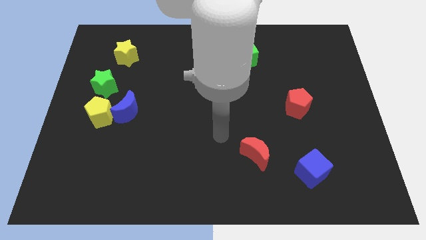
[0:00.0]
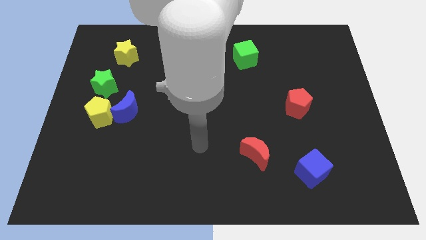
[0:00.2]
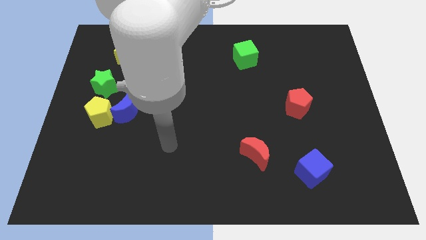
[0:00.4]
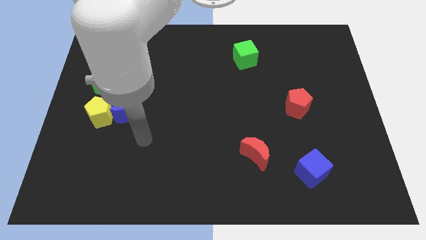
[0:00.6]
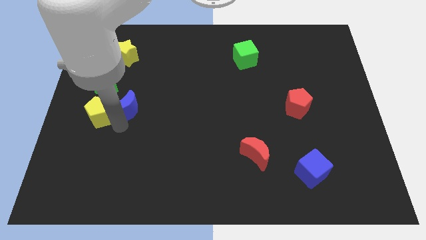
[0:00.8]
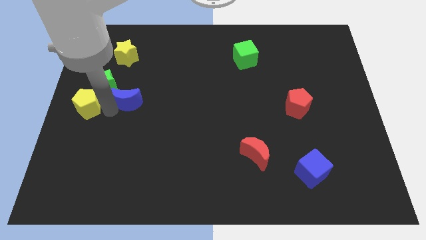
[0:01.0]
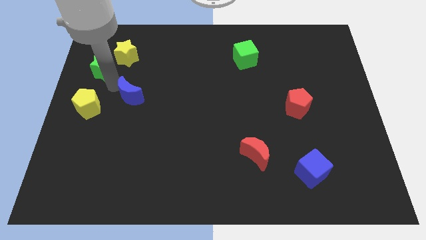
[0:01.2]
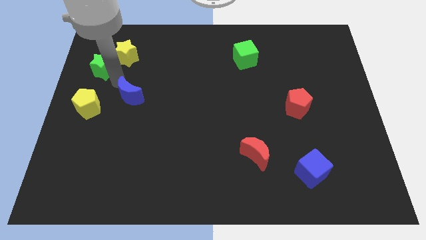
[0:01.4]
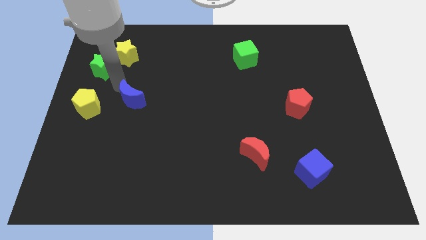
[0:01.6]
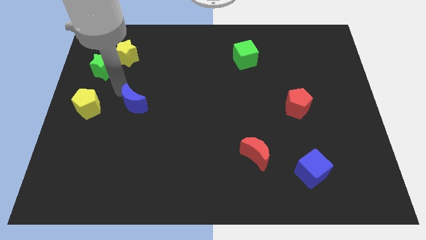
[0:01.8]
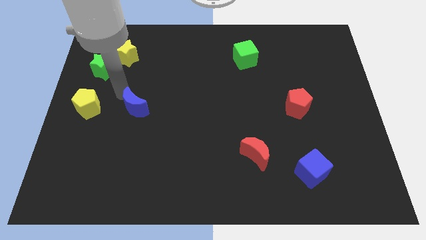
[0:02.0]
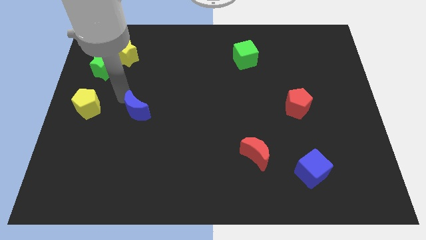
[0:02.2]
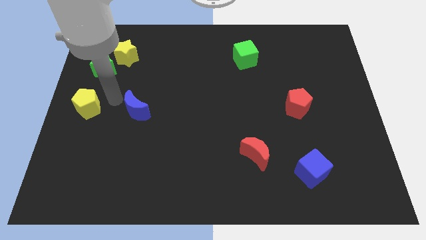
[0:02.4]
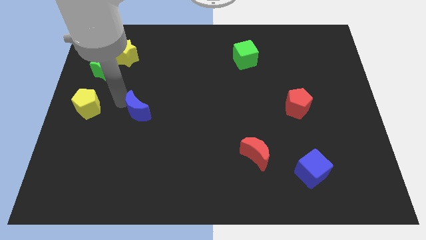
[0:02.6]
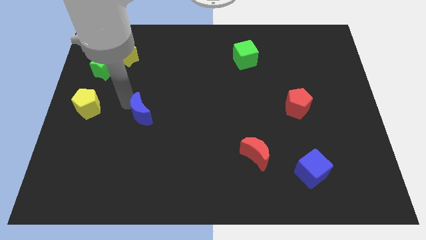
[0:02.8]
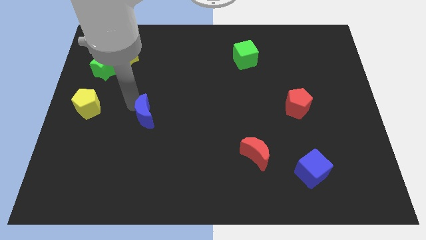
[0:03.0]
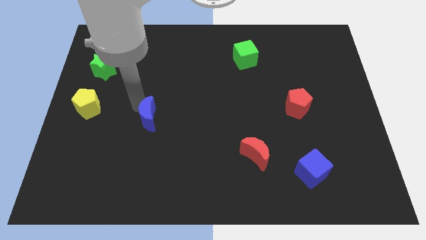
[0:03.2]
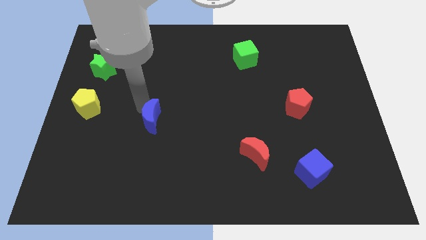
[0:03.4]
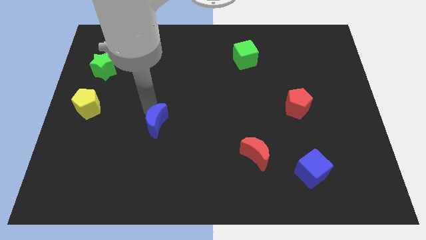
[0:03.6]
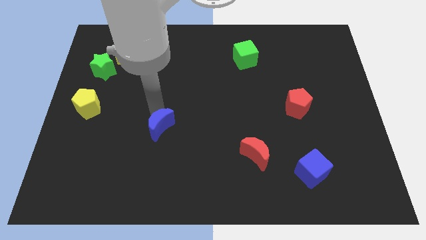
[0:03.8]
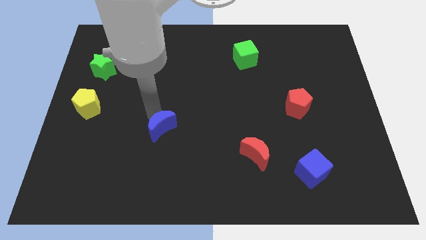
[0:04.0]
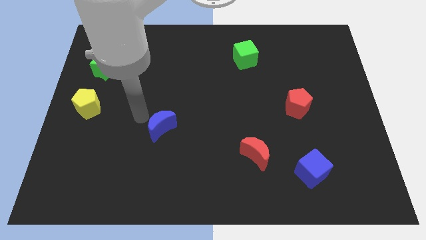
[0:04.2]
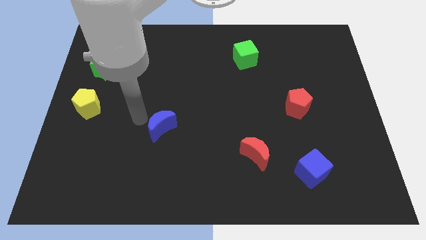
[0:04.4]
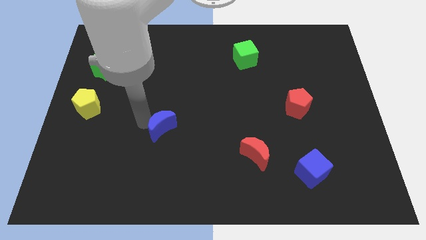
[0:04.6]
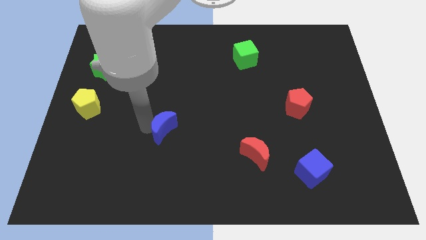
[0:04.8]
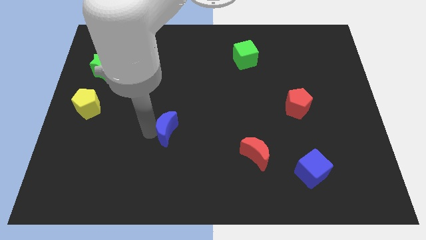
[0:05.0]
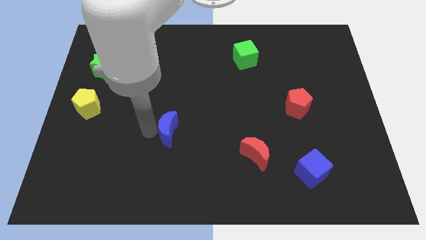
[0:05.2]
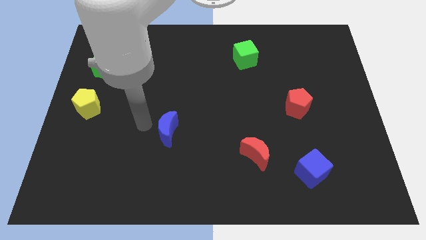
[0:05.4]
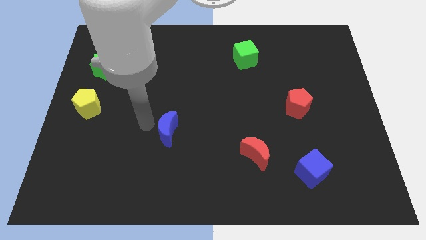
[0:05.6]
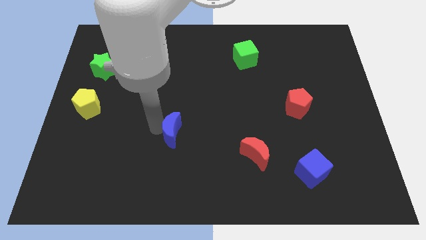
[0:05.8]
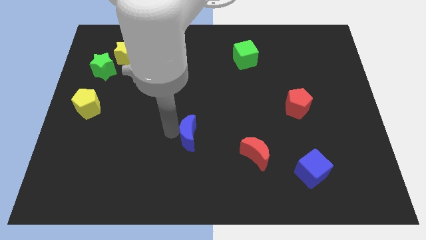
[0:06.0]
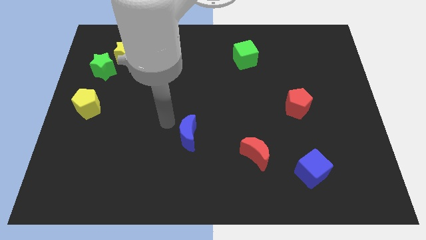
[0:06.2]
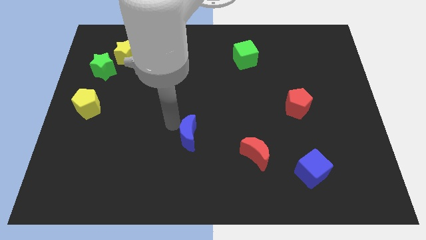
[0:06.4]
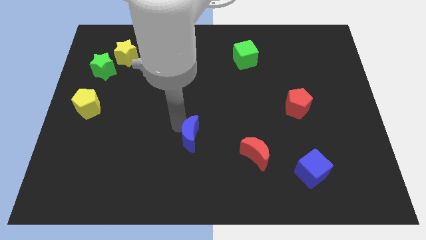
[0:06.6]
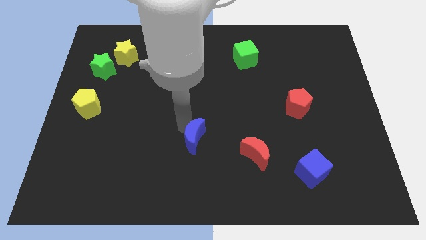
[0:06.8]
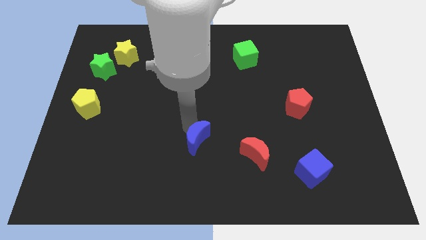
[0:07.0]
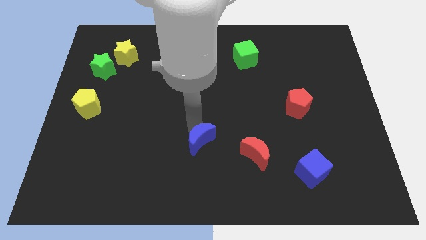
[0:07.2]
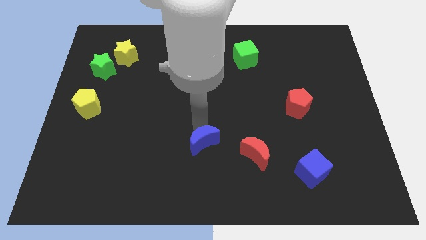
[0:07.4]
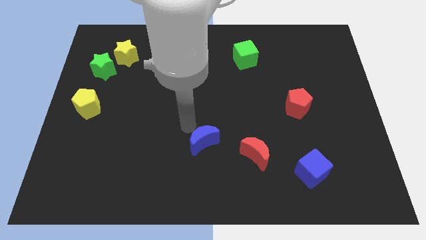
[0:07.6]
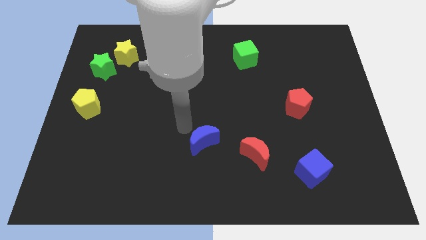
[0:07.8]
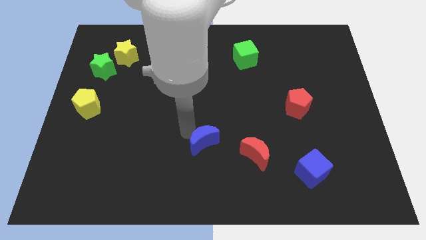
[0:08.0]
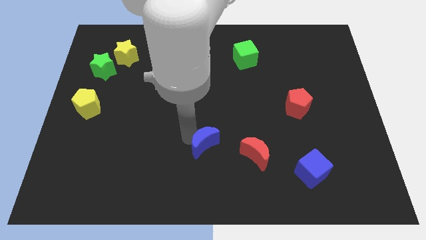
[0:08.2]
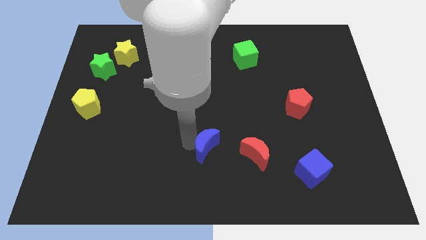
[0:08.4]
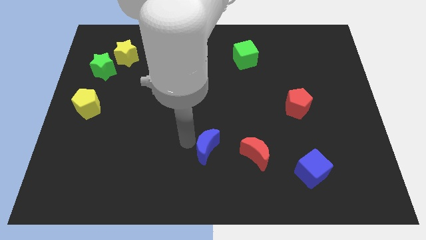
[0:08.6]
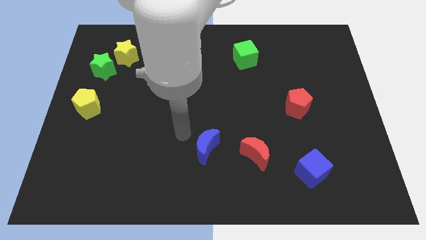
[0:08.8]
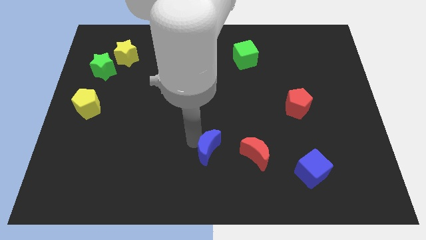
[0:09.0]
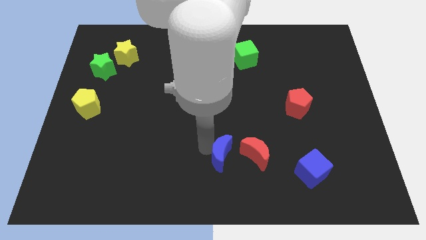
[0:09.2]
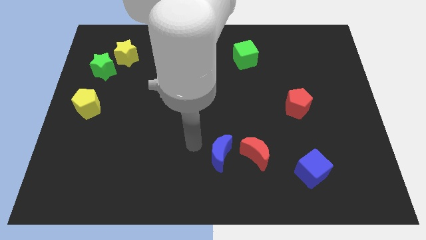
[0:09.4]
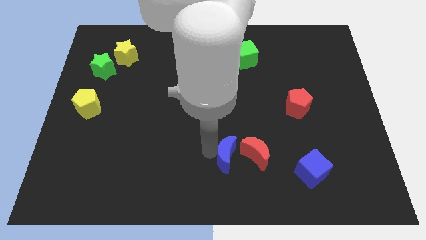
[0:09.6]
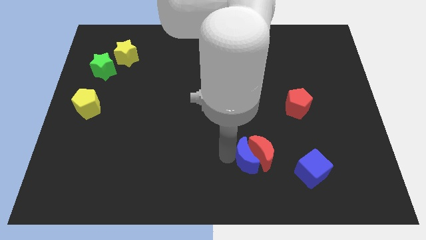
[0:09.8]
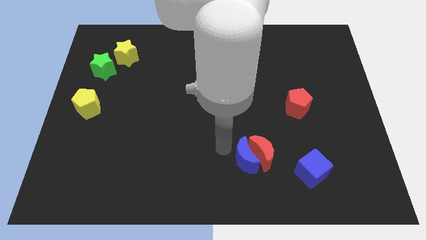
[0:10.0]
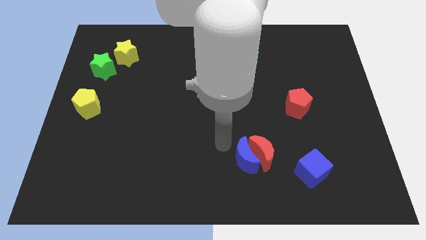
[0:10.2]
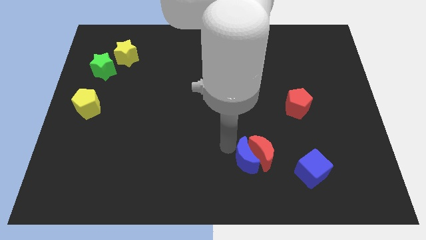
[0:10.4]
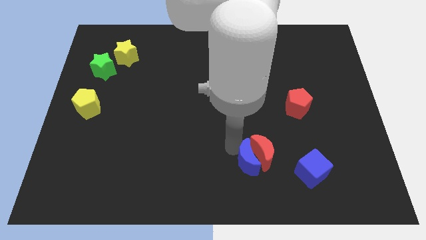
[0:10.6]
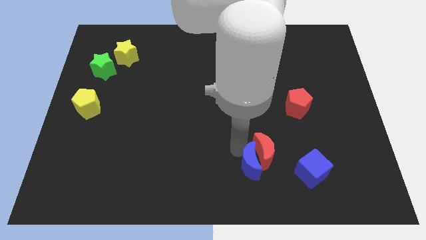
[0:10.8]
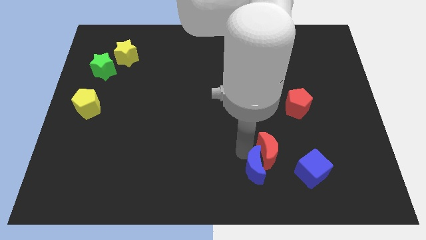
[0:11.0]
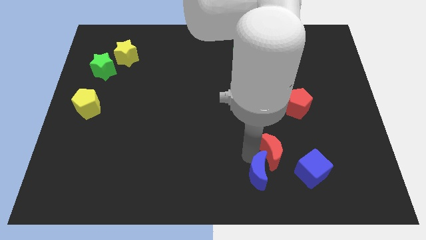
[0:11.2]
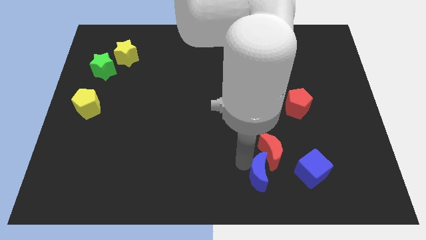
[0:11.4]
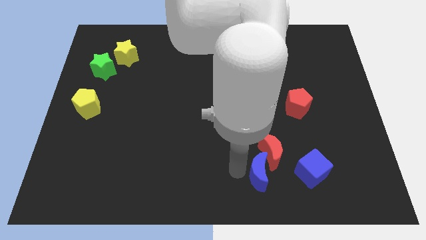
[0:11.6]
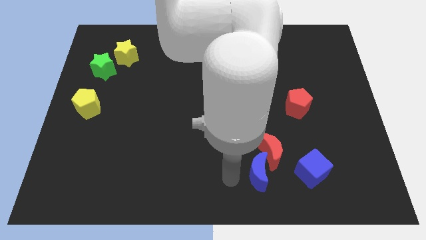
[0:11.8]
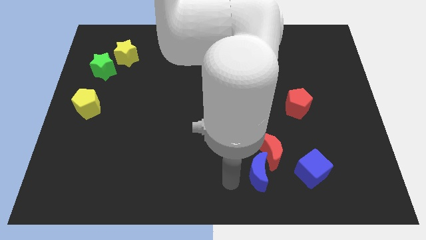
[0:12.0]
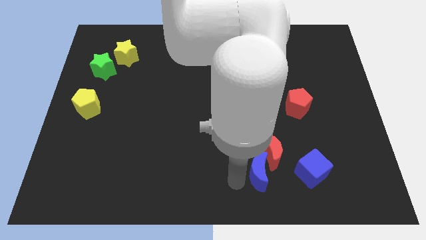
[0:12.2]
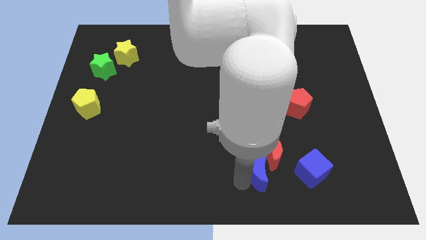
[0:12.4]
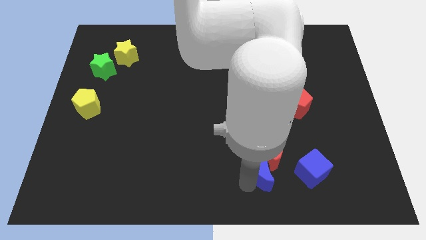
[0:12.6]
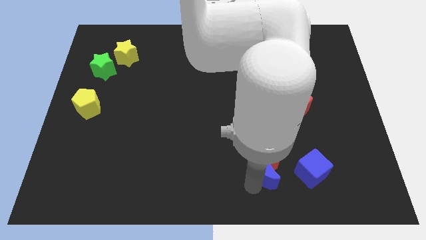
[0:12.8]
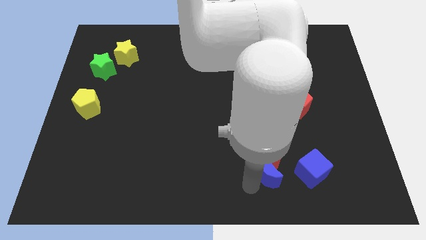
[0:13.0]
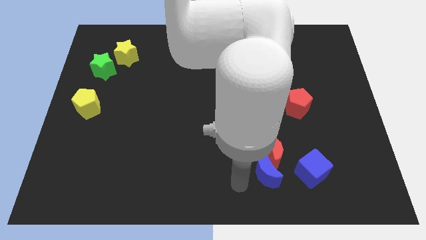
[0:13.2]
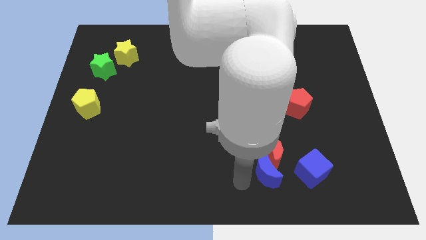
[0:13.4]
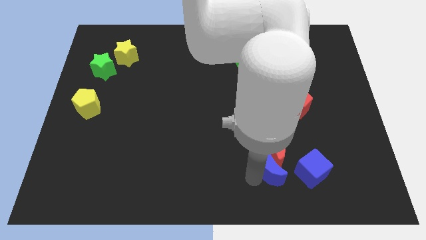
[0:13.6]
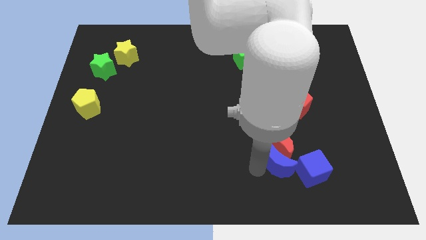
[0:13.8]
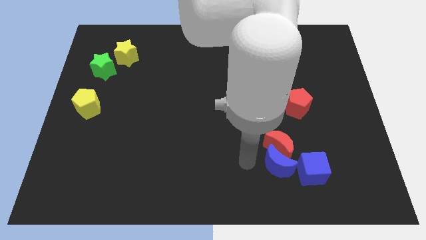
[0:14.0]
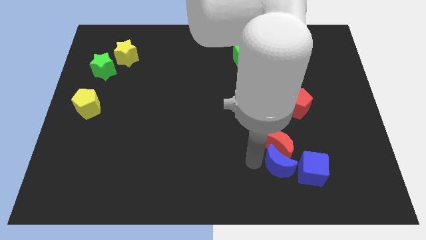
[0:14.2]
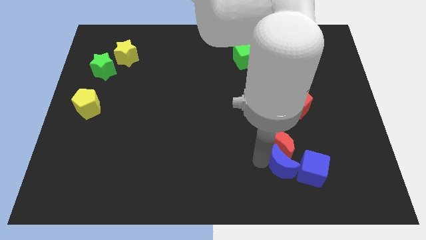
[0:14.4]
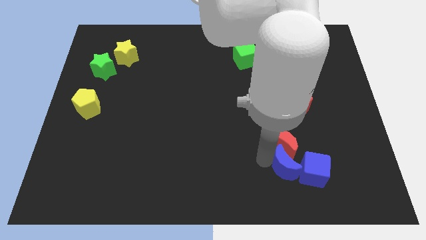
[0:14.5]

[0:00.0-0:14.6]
slide the blue moon next to the blue cube

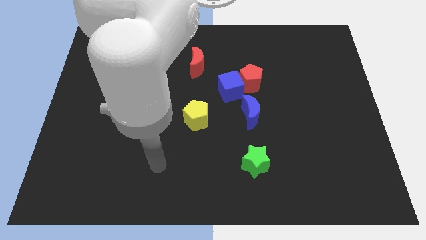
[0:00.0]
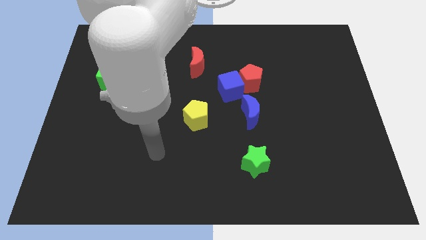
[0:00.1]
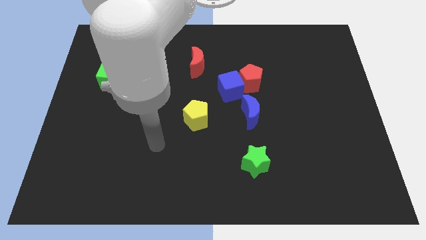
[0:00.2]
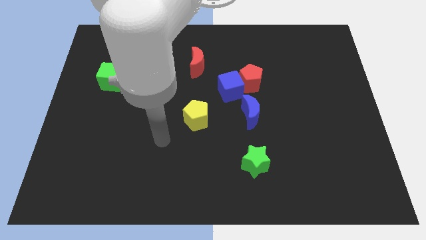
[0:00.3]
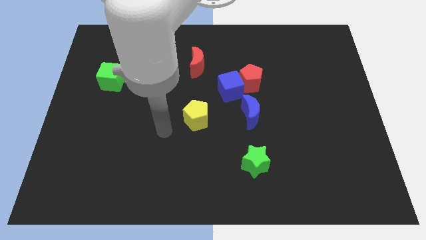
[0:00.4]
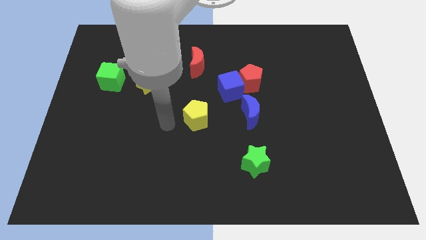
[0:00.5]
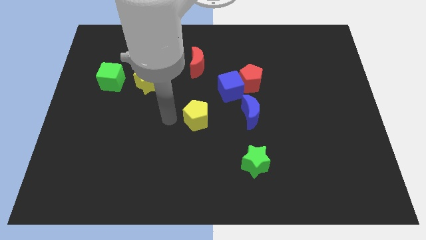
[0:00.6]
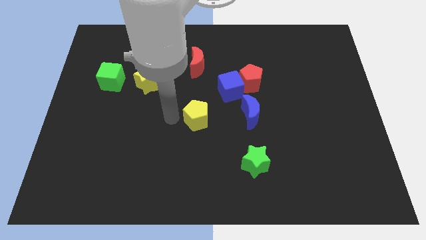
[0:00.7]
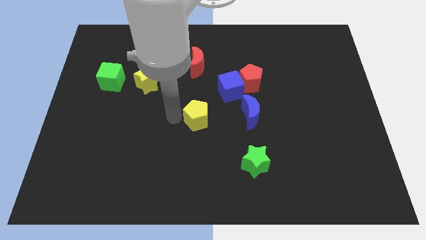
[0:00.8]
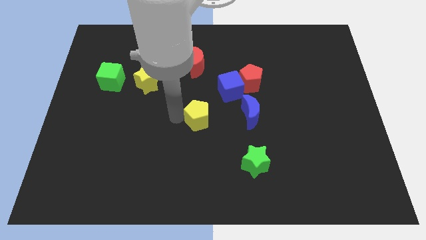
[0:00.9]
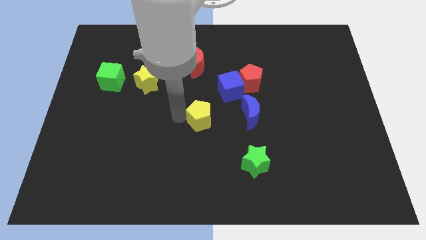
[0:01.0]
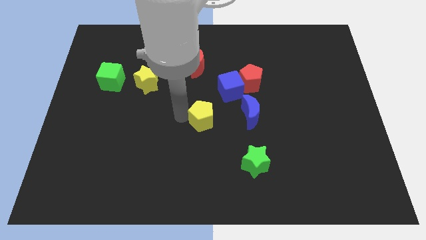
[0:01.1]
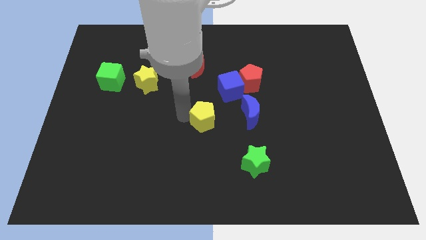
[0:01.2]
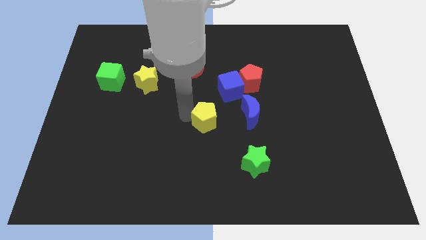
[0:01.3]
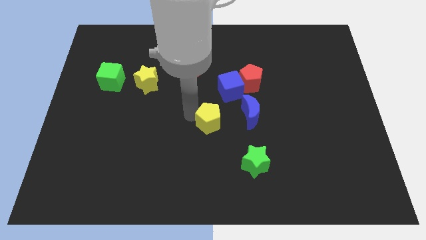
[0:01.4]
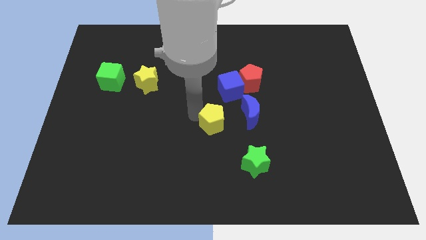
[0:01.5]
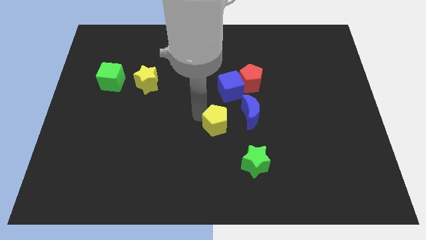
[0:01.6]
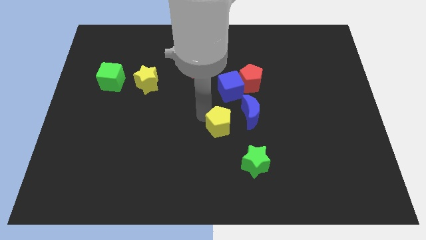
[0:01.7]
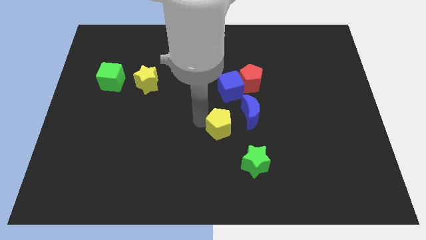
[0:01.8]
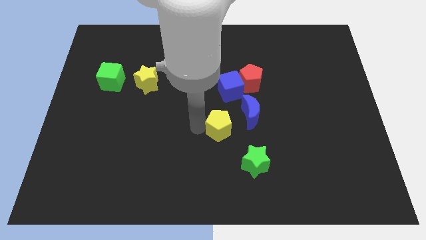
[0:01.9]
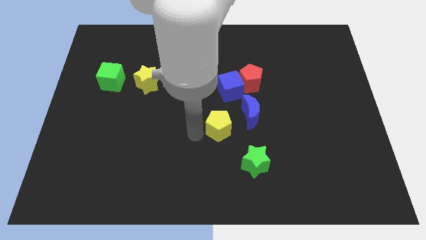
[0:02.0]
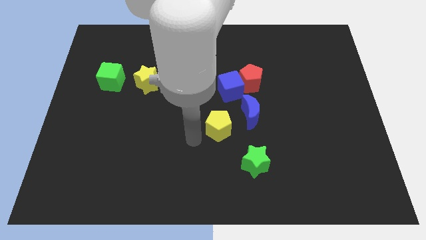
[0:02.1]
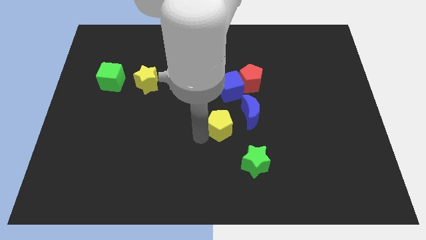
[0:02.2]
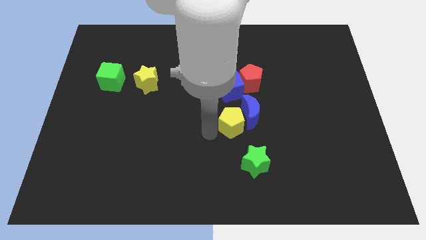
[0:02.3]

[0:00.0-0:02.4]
slide the yellow pentagon towards the blue moon
